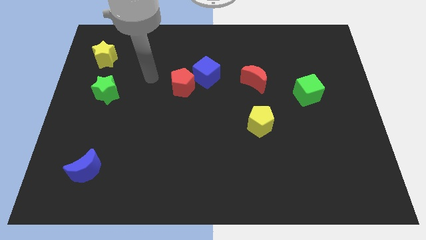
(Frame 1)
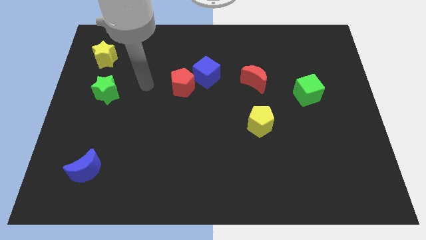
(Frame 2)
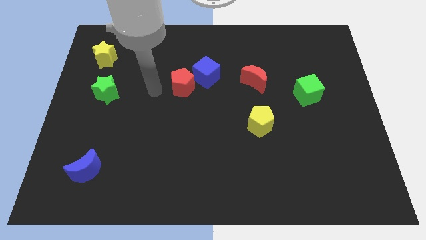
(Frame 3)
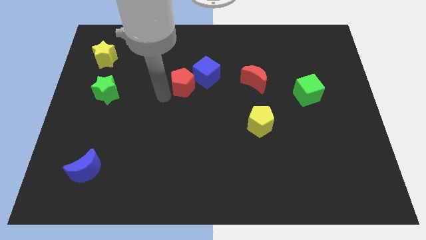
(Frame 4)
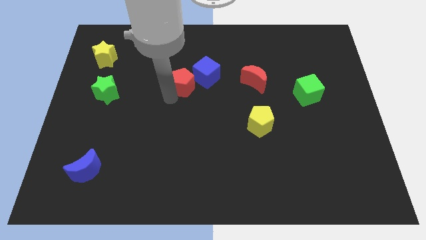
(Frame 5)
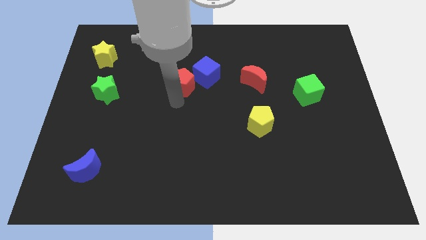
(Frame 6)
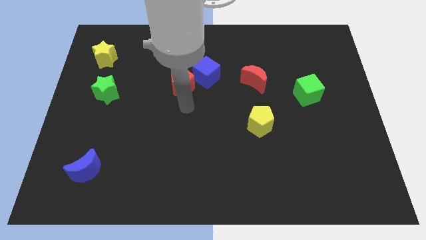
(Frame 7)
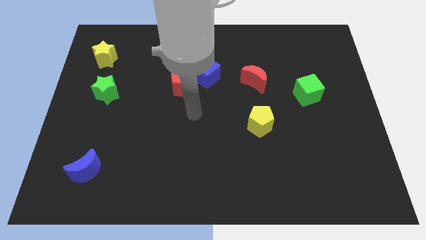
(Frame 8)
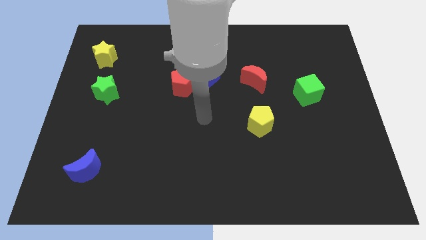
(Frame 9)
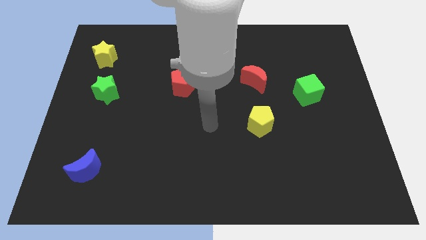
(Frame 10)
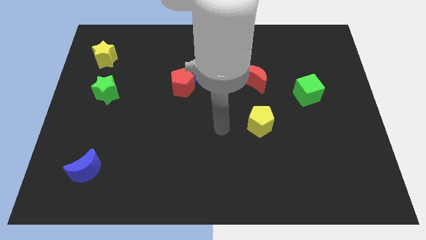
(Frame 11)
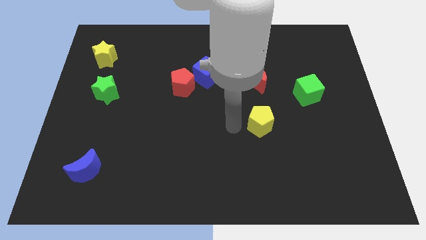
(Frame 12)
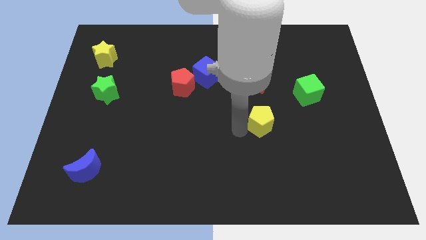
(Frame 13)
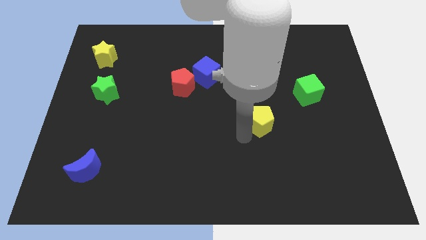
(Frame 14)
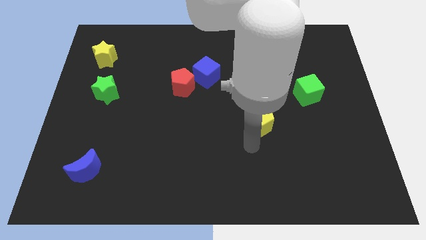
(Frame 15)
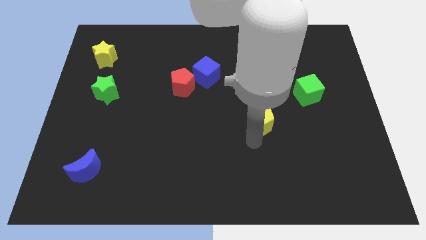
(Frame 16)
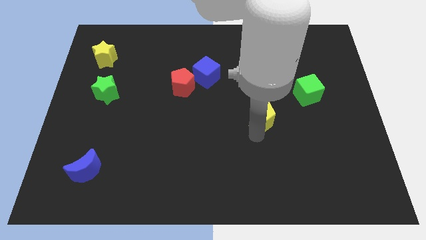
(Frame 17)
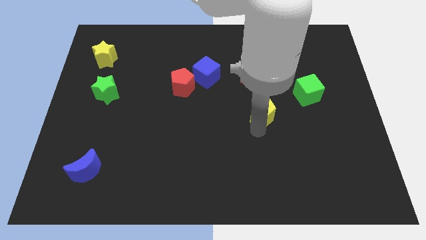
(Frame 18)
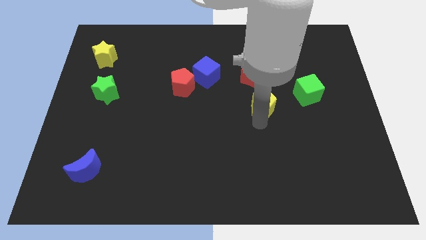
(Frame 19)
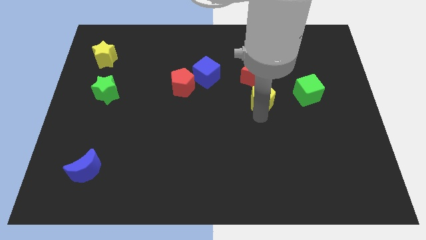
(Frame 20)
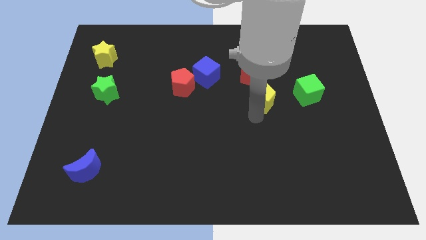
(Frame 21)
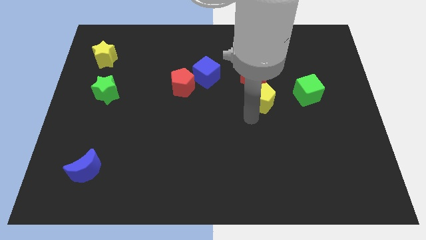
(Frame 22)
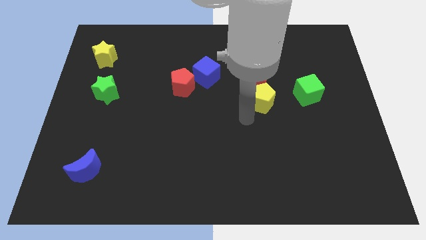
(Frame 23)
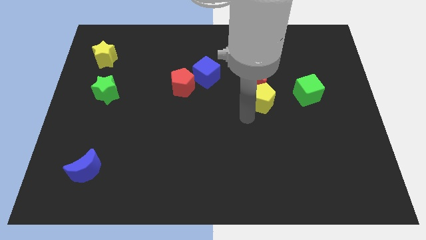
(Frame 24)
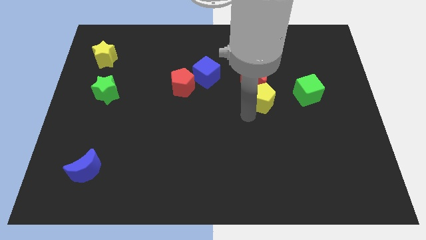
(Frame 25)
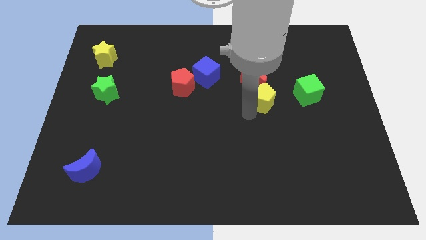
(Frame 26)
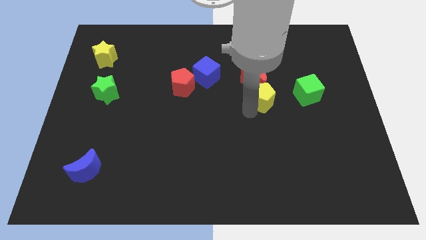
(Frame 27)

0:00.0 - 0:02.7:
slightly push the yellow pentagon upwards

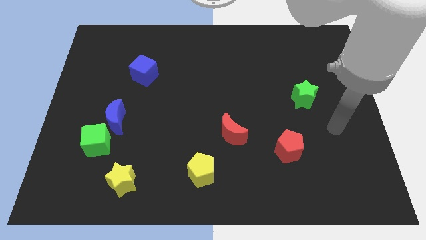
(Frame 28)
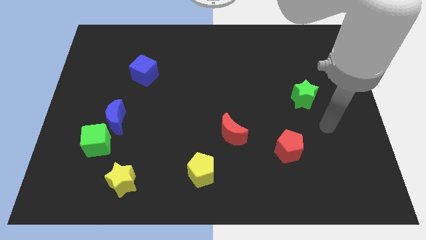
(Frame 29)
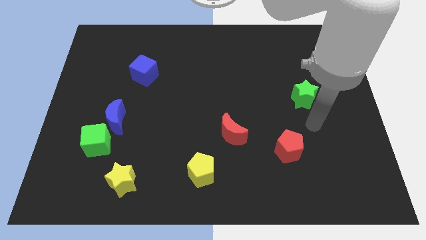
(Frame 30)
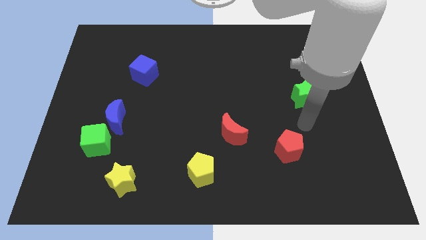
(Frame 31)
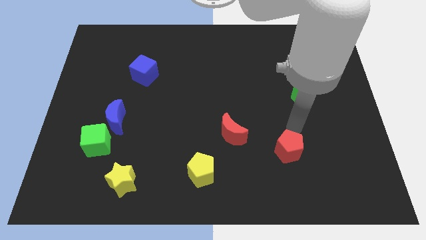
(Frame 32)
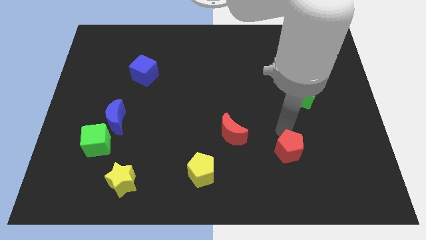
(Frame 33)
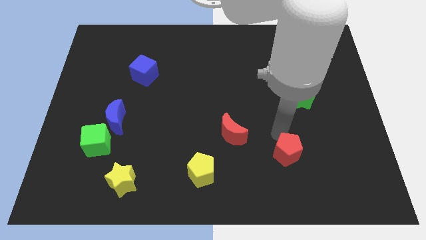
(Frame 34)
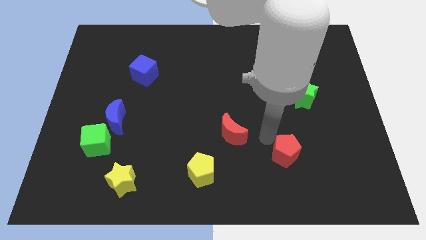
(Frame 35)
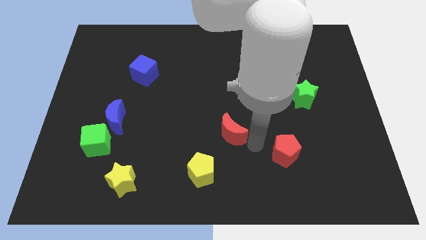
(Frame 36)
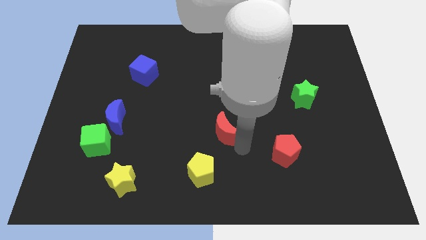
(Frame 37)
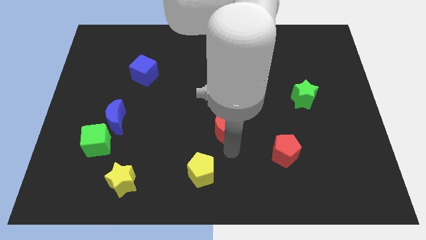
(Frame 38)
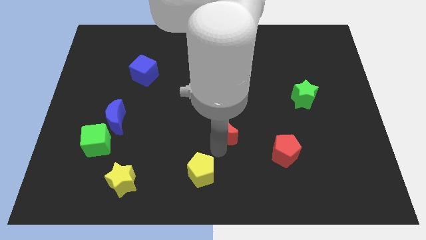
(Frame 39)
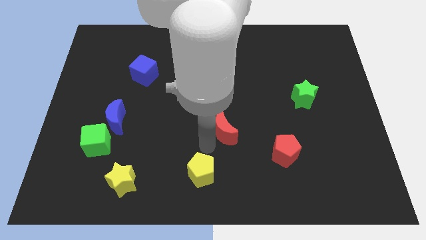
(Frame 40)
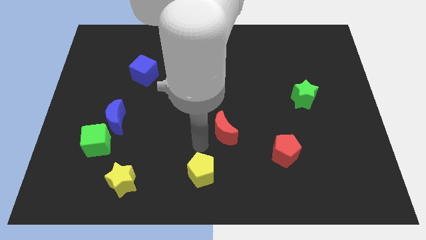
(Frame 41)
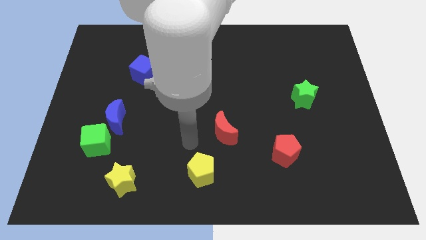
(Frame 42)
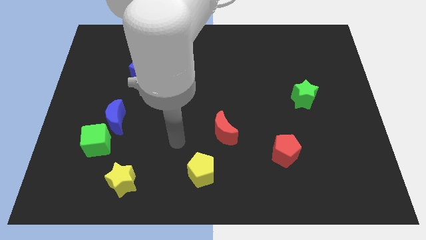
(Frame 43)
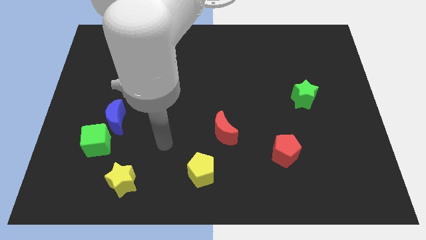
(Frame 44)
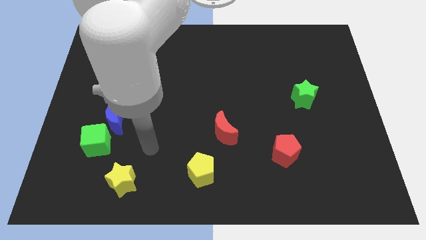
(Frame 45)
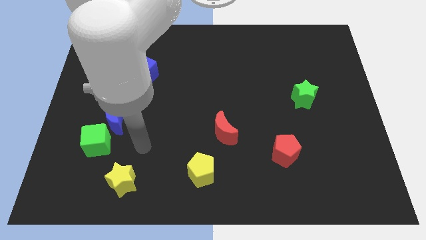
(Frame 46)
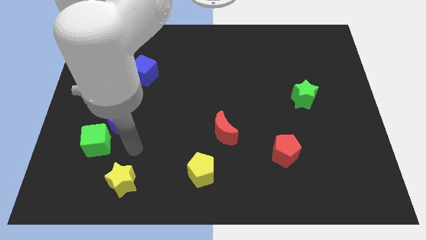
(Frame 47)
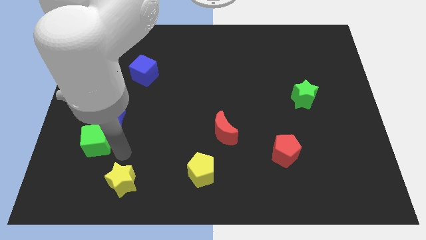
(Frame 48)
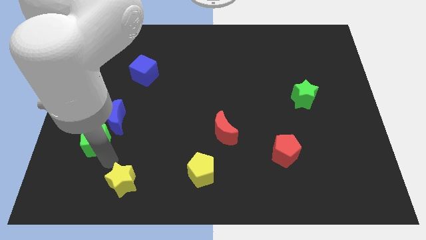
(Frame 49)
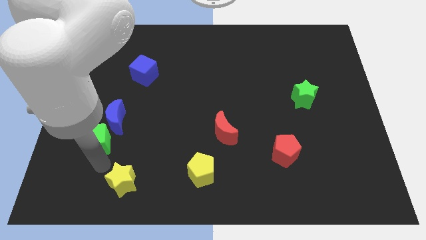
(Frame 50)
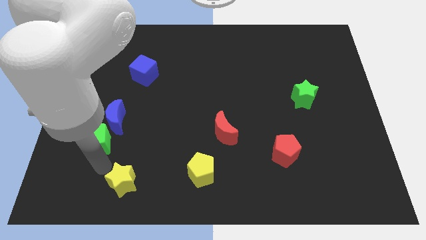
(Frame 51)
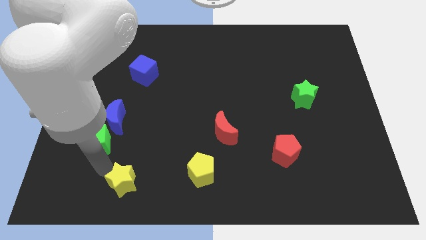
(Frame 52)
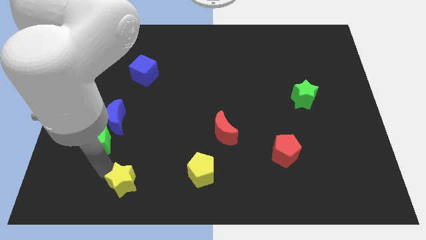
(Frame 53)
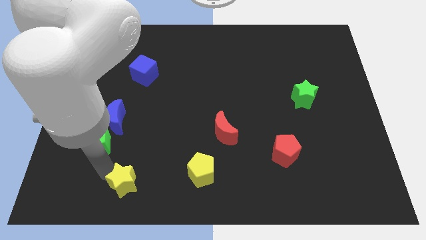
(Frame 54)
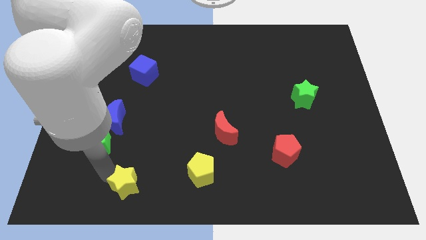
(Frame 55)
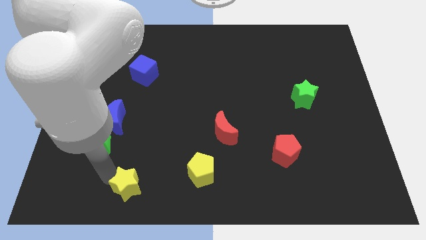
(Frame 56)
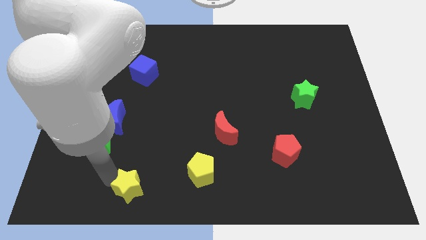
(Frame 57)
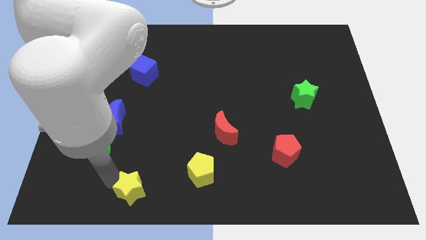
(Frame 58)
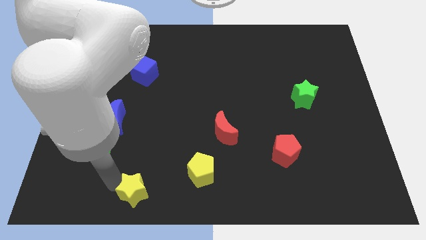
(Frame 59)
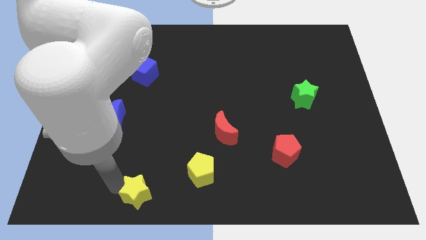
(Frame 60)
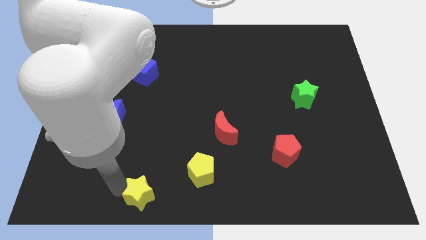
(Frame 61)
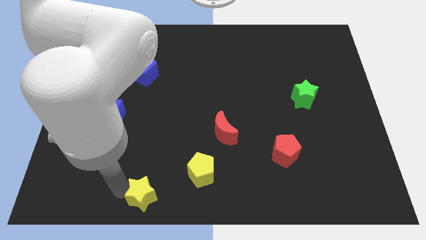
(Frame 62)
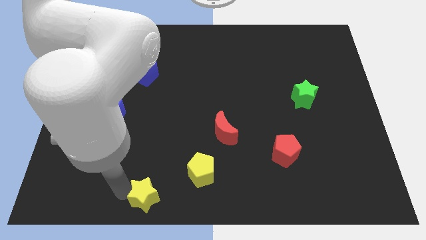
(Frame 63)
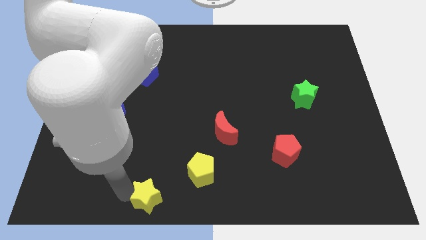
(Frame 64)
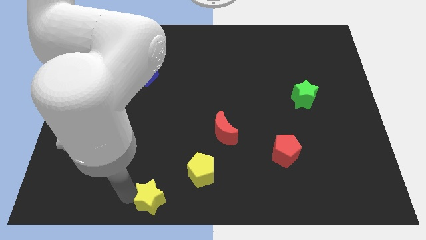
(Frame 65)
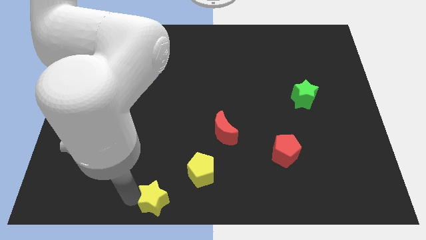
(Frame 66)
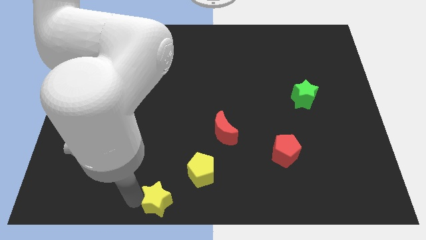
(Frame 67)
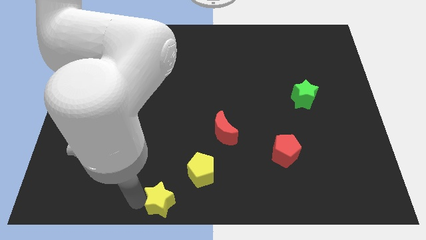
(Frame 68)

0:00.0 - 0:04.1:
slightly push the yellow star right

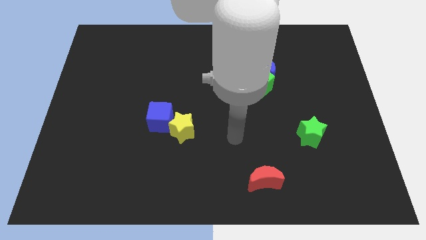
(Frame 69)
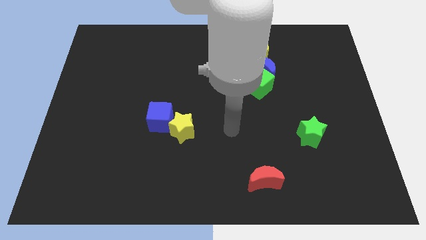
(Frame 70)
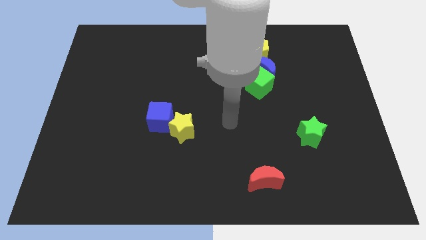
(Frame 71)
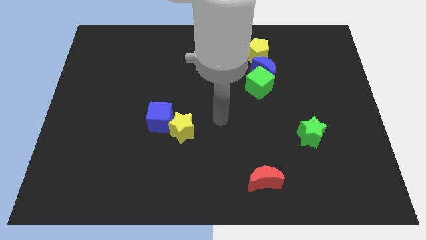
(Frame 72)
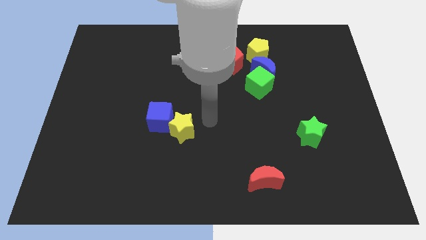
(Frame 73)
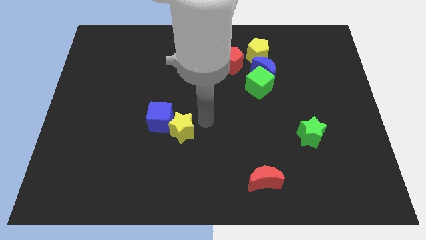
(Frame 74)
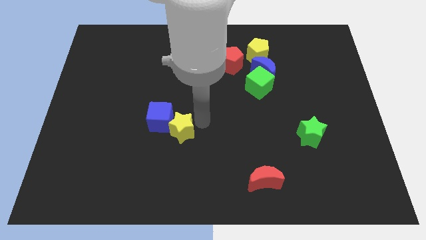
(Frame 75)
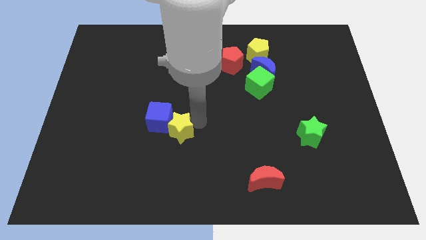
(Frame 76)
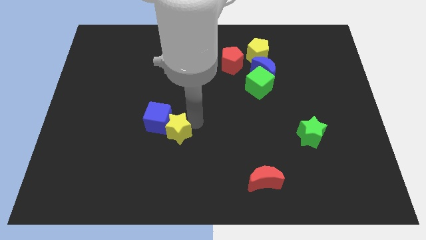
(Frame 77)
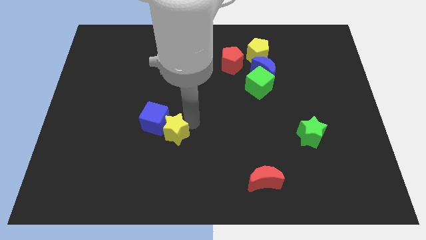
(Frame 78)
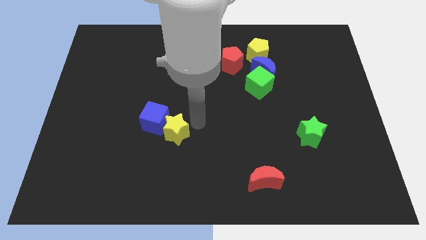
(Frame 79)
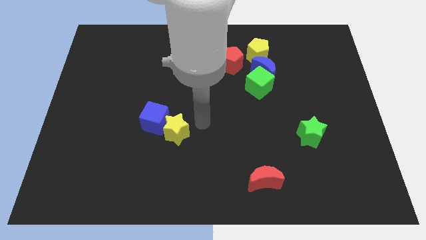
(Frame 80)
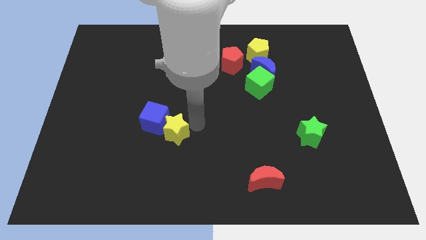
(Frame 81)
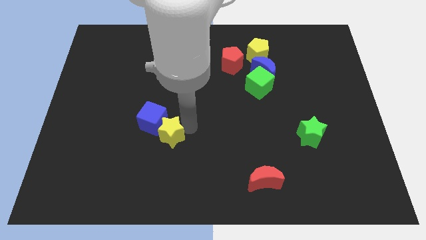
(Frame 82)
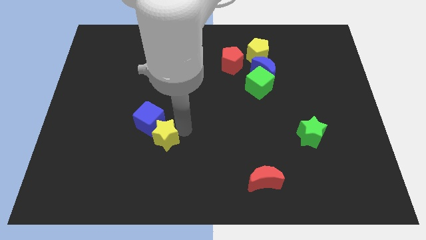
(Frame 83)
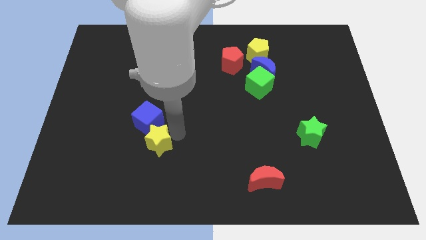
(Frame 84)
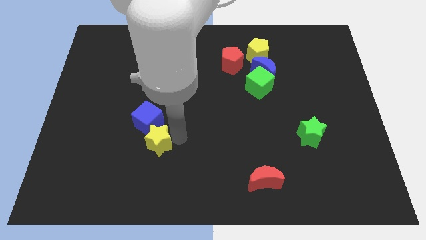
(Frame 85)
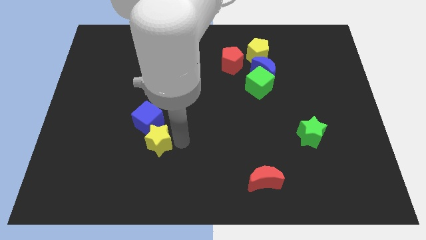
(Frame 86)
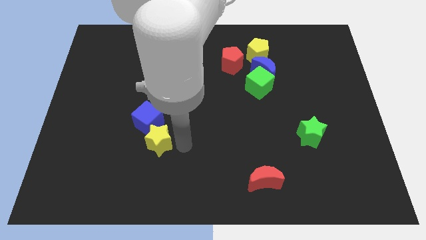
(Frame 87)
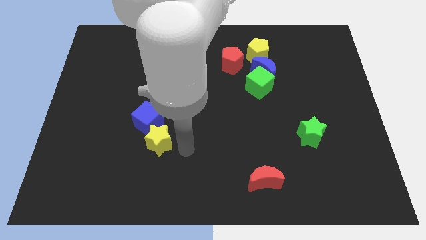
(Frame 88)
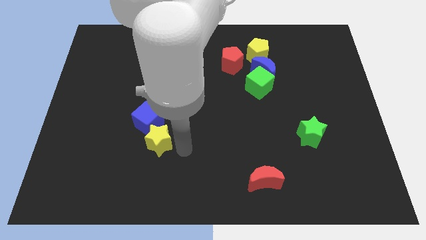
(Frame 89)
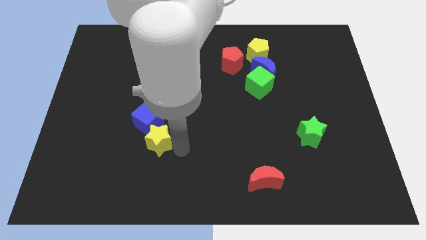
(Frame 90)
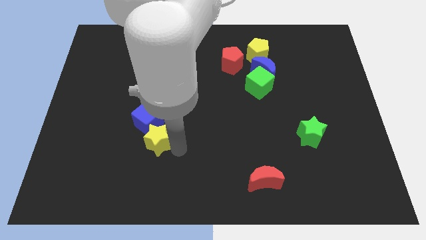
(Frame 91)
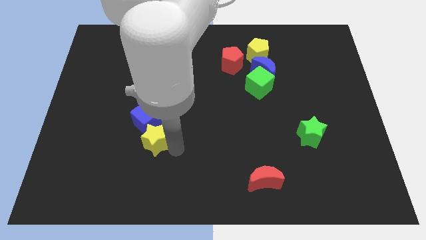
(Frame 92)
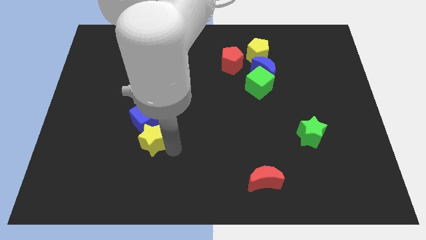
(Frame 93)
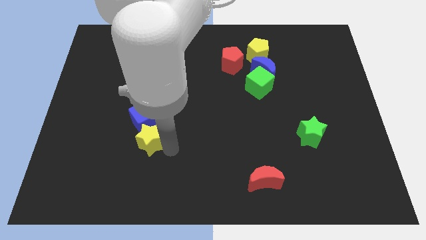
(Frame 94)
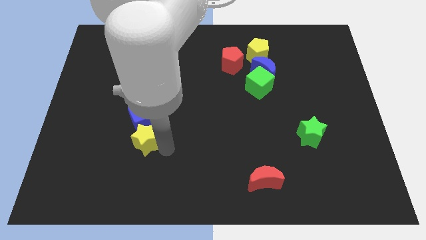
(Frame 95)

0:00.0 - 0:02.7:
move the yellow star a little bit left
